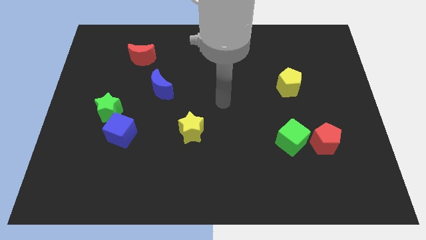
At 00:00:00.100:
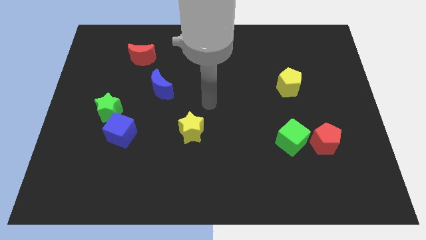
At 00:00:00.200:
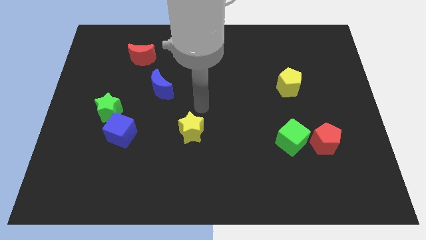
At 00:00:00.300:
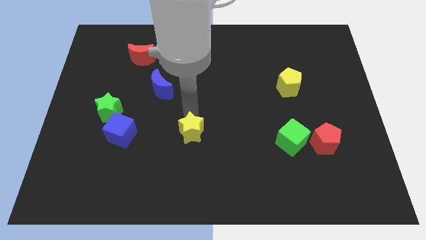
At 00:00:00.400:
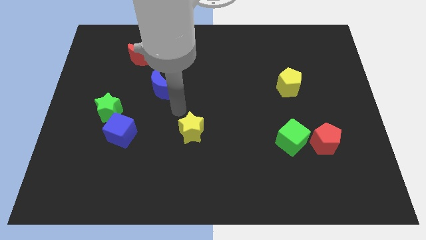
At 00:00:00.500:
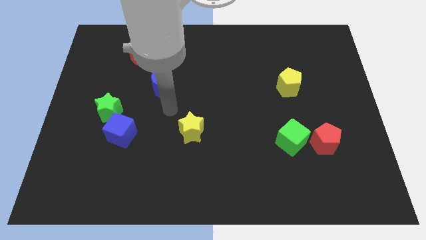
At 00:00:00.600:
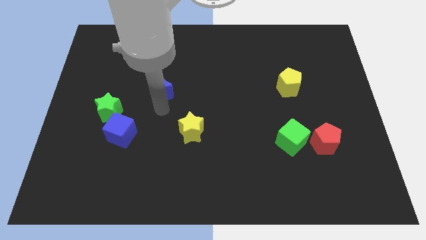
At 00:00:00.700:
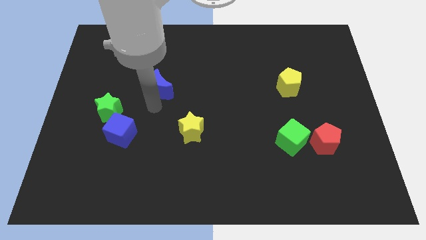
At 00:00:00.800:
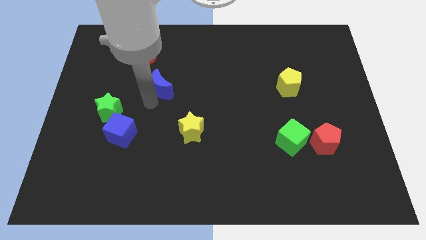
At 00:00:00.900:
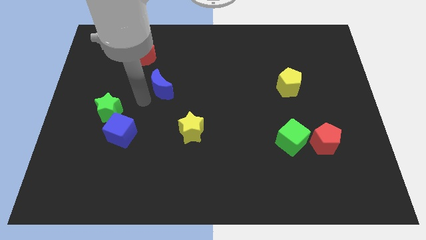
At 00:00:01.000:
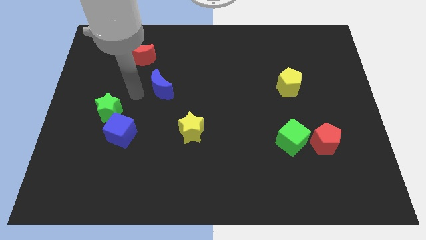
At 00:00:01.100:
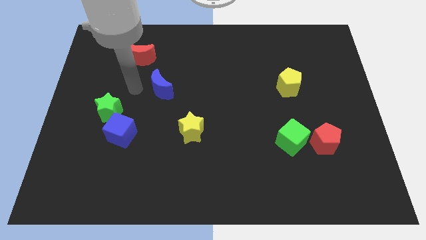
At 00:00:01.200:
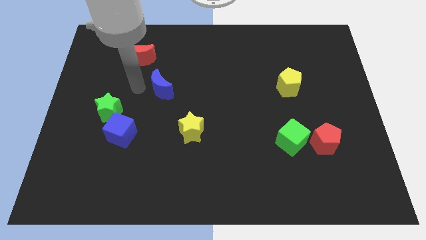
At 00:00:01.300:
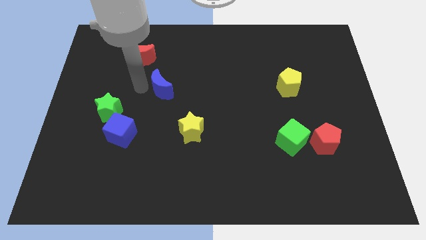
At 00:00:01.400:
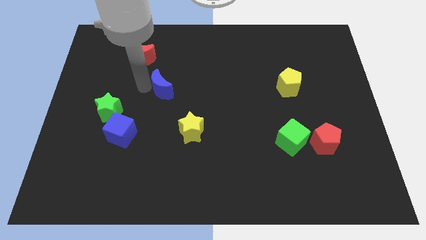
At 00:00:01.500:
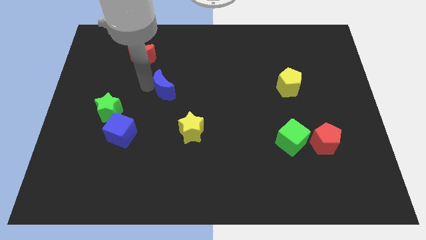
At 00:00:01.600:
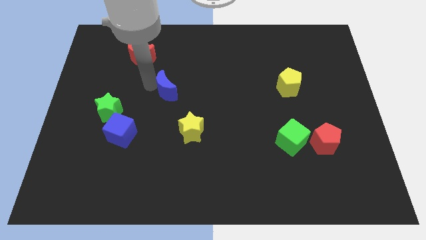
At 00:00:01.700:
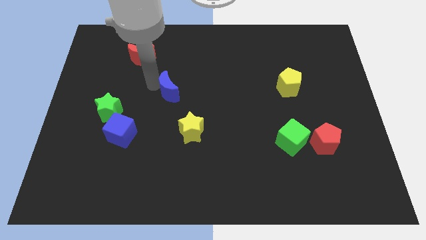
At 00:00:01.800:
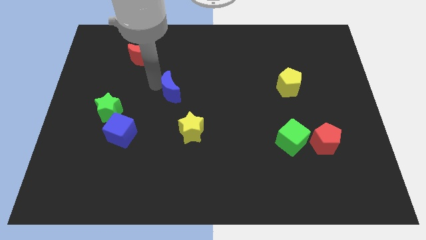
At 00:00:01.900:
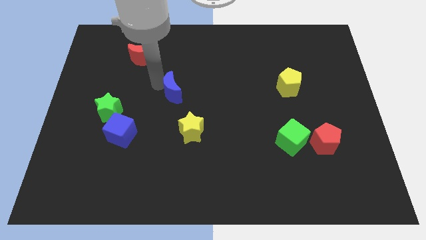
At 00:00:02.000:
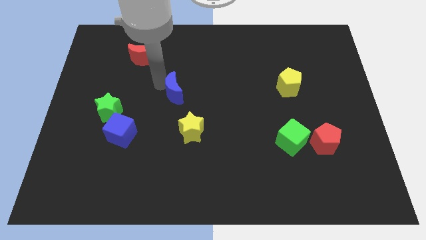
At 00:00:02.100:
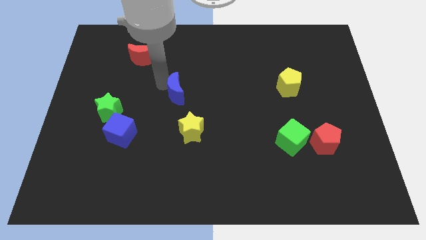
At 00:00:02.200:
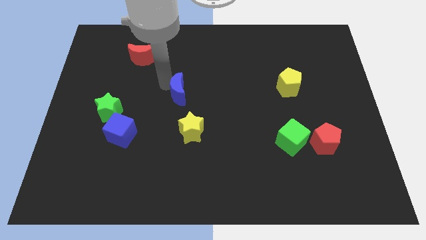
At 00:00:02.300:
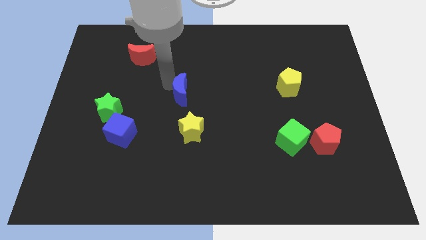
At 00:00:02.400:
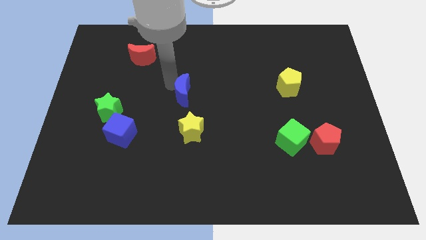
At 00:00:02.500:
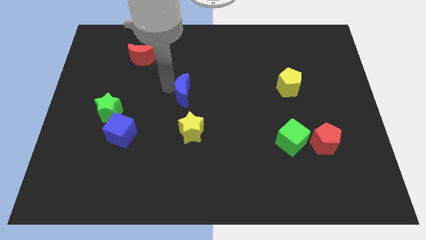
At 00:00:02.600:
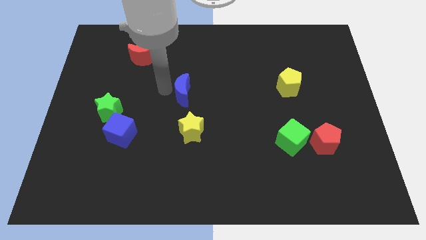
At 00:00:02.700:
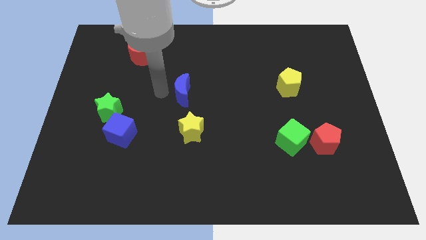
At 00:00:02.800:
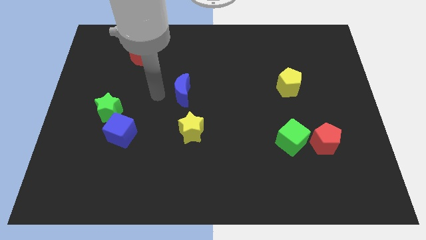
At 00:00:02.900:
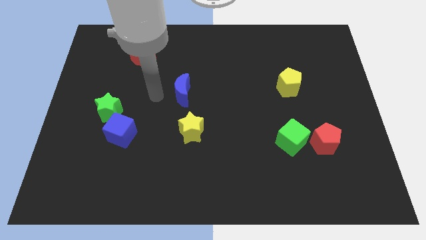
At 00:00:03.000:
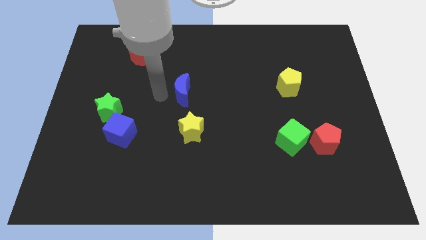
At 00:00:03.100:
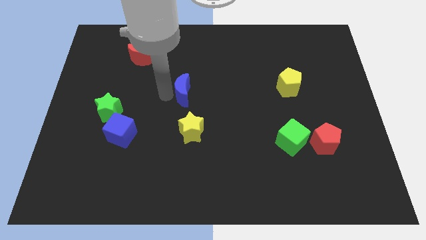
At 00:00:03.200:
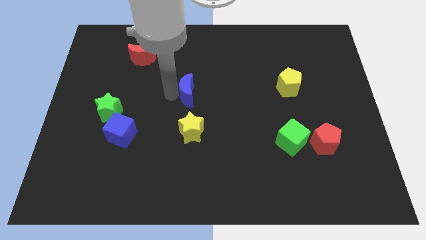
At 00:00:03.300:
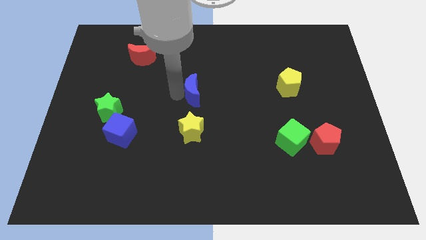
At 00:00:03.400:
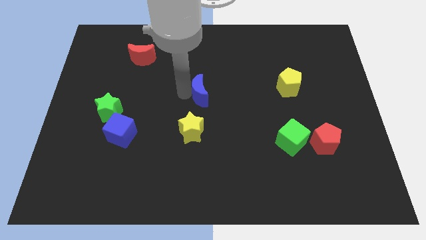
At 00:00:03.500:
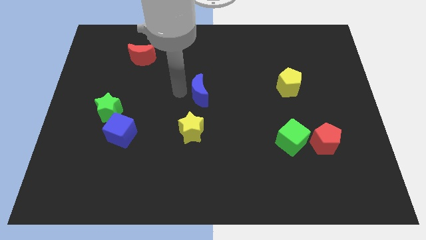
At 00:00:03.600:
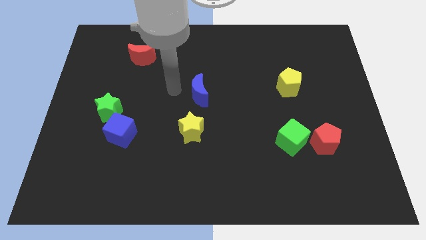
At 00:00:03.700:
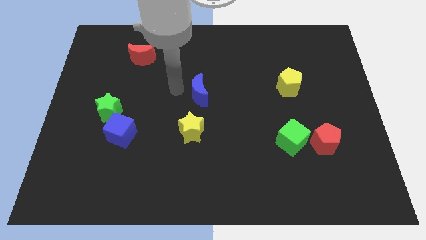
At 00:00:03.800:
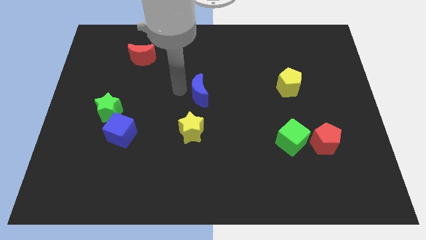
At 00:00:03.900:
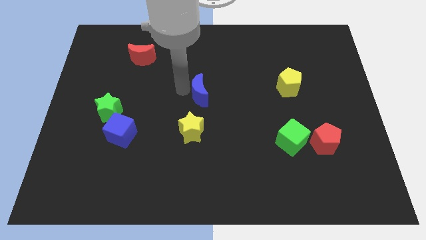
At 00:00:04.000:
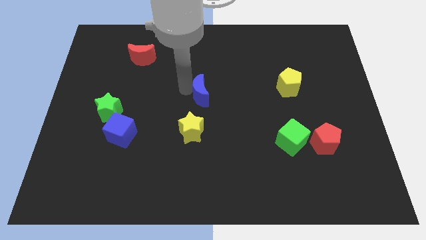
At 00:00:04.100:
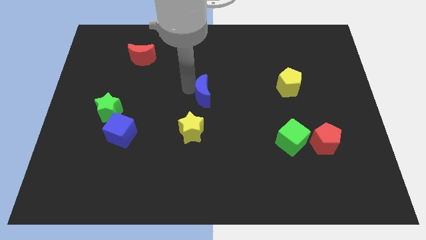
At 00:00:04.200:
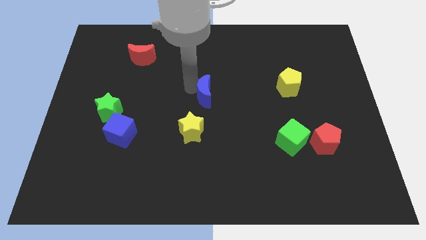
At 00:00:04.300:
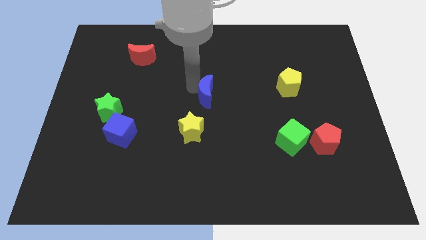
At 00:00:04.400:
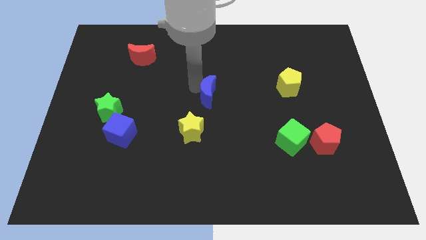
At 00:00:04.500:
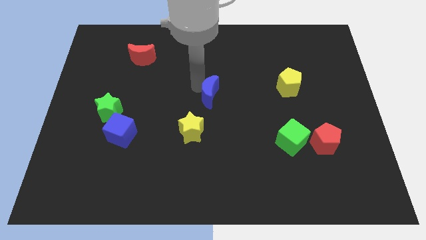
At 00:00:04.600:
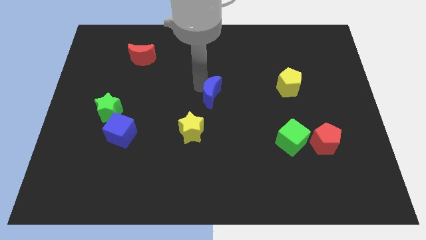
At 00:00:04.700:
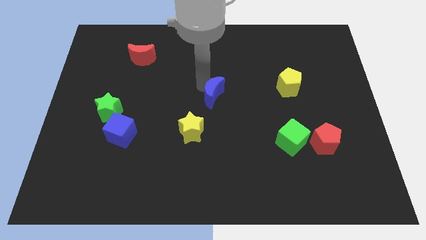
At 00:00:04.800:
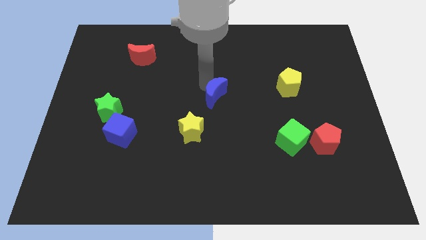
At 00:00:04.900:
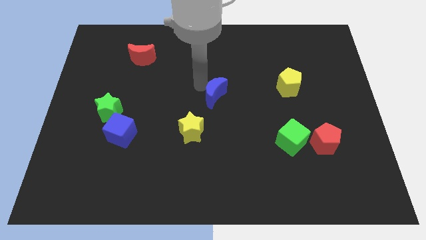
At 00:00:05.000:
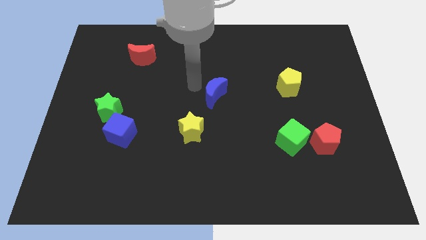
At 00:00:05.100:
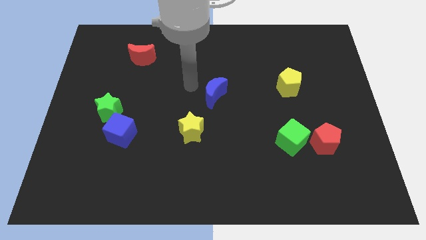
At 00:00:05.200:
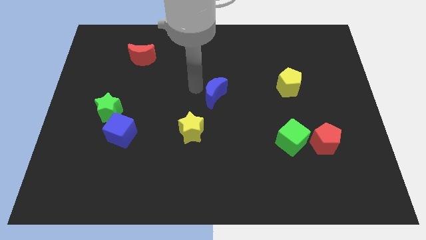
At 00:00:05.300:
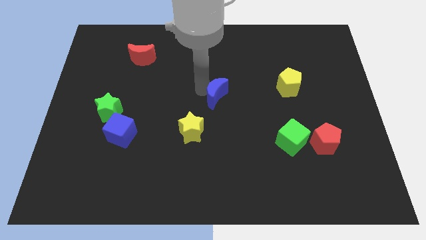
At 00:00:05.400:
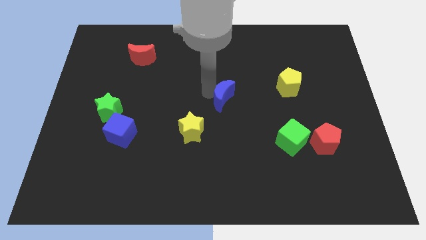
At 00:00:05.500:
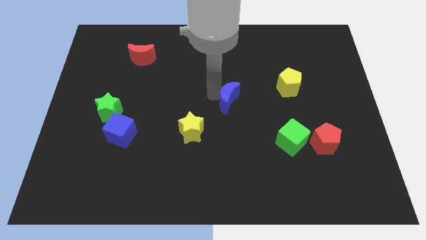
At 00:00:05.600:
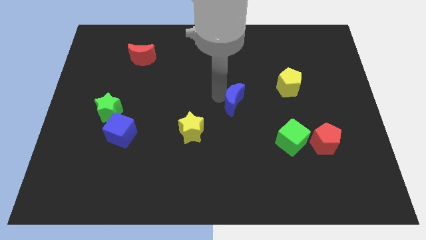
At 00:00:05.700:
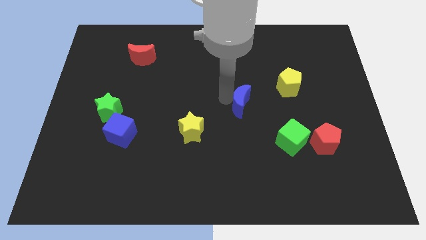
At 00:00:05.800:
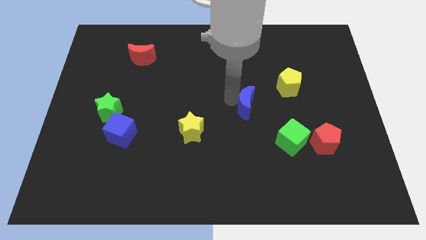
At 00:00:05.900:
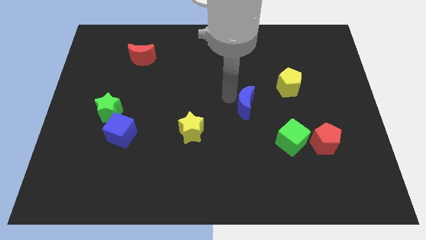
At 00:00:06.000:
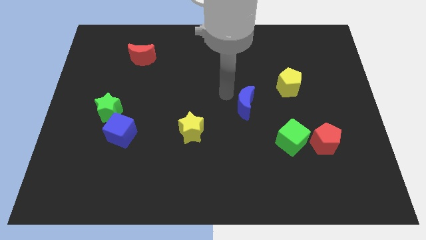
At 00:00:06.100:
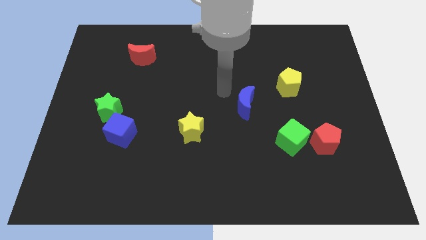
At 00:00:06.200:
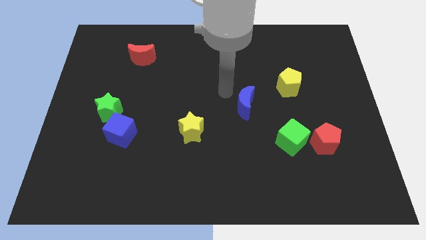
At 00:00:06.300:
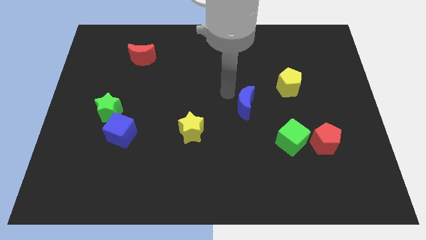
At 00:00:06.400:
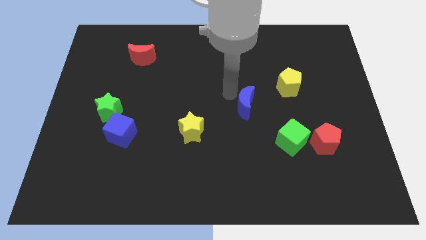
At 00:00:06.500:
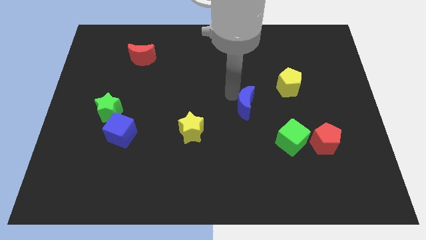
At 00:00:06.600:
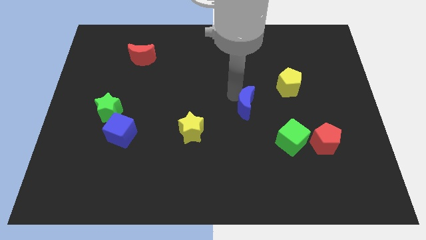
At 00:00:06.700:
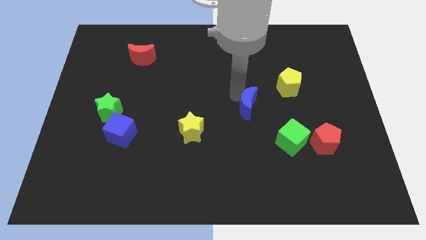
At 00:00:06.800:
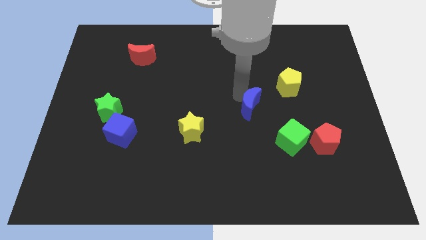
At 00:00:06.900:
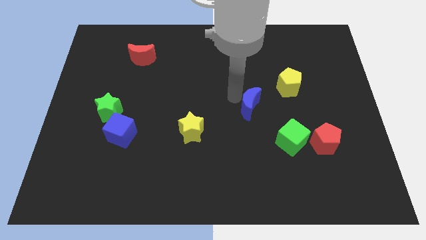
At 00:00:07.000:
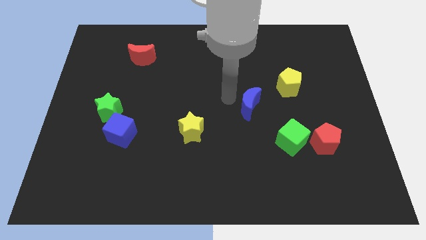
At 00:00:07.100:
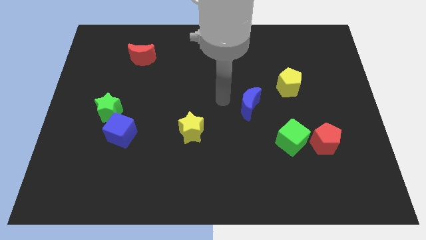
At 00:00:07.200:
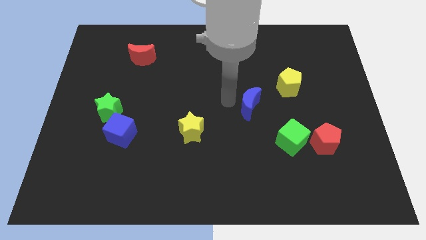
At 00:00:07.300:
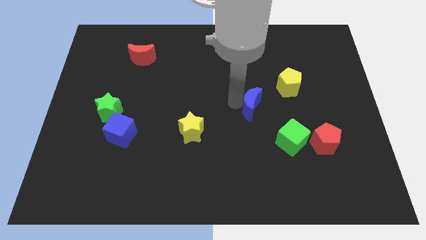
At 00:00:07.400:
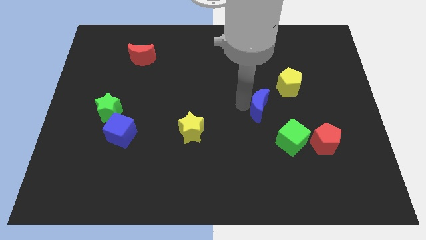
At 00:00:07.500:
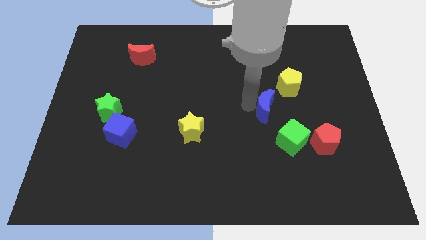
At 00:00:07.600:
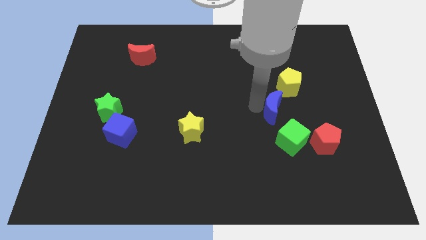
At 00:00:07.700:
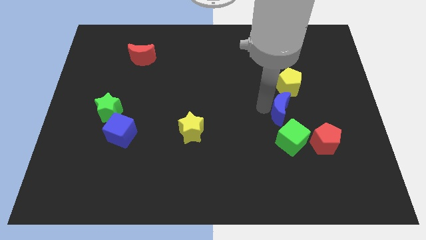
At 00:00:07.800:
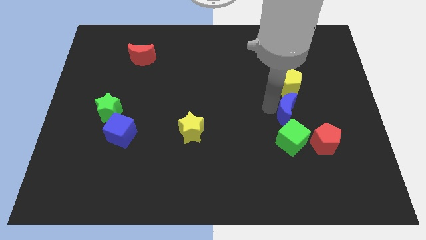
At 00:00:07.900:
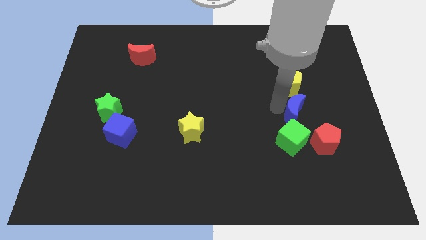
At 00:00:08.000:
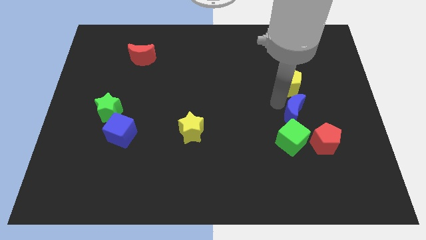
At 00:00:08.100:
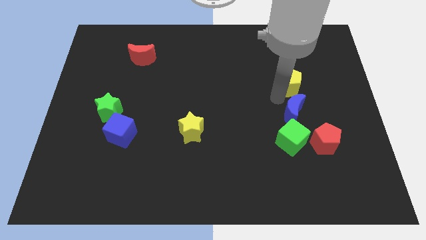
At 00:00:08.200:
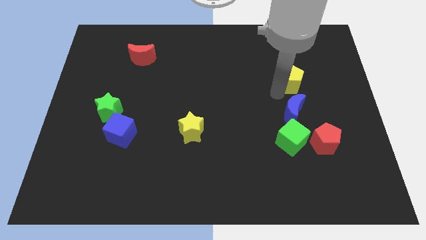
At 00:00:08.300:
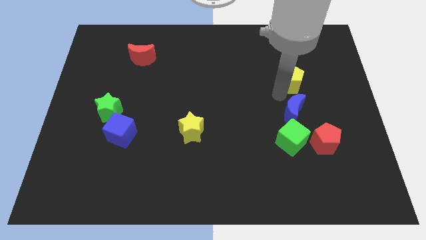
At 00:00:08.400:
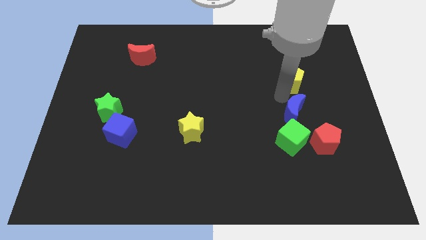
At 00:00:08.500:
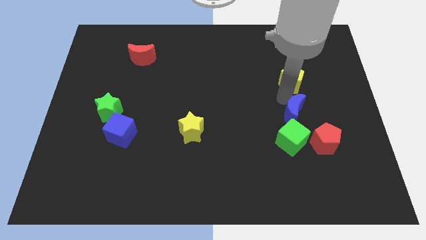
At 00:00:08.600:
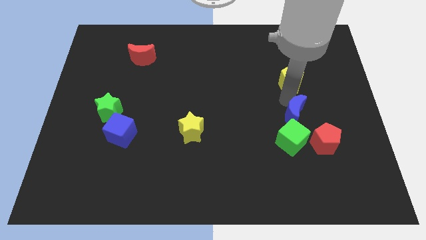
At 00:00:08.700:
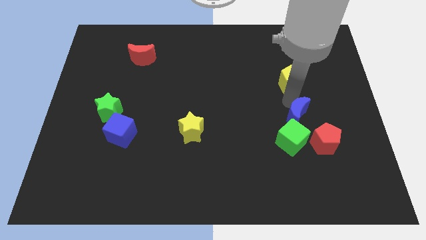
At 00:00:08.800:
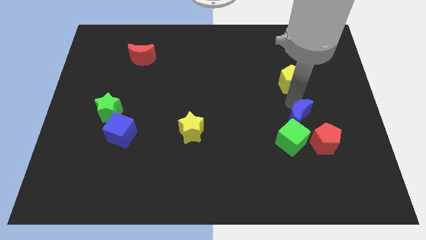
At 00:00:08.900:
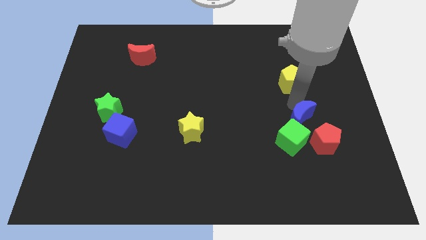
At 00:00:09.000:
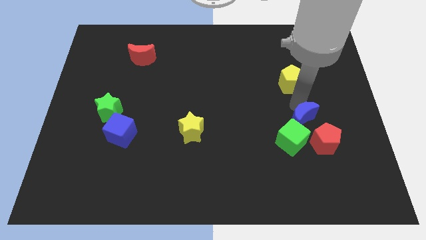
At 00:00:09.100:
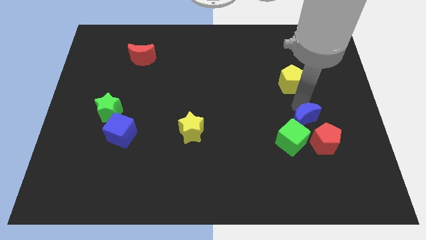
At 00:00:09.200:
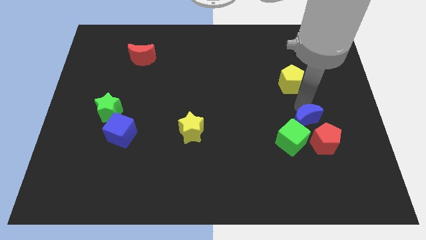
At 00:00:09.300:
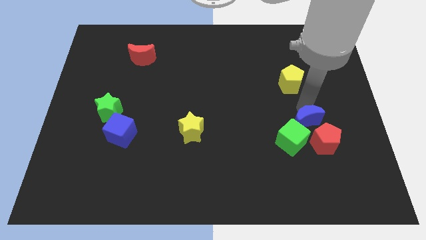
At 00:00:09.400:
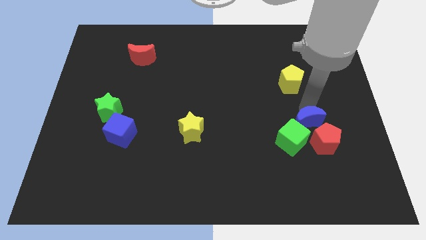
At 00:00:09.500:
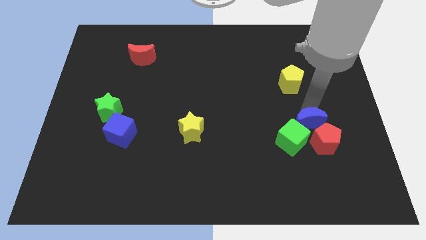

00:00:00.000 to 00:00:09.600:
push the blue moon next to the red pentagon
